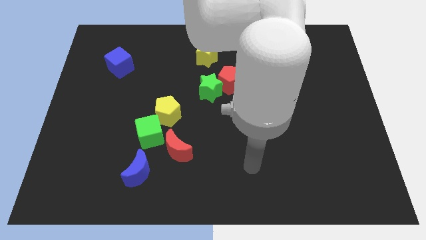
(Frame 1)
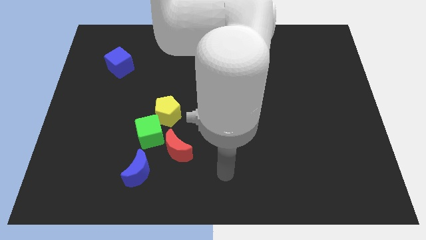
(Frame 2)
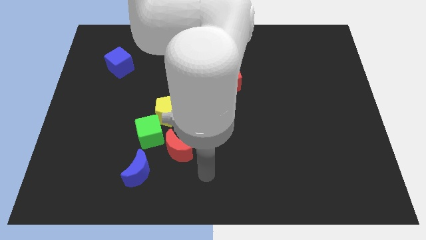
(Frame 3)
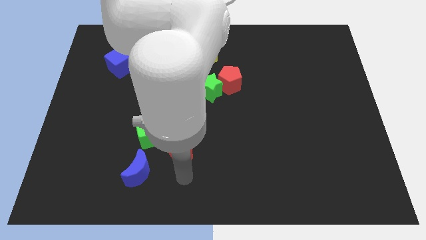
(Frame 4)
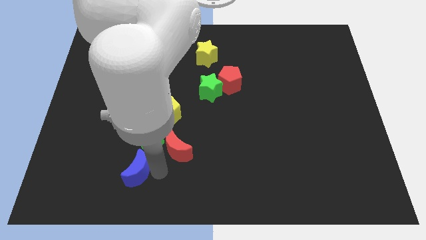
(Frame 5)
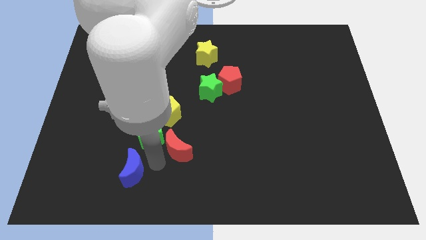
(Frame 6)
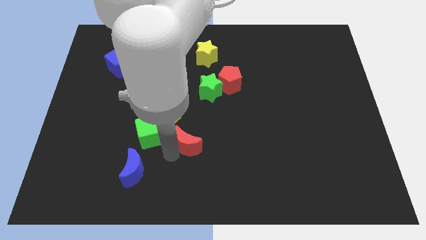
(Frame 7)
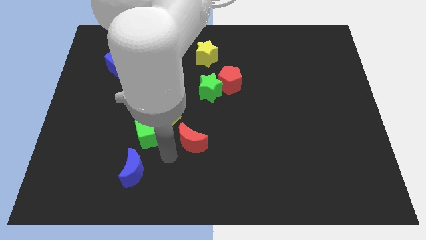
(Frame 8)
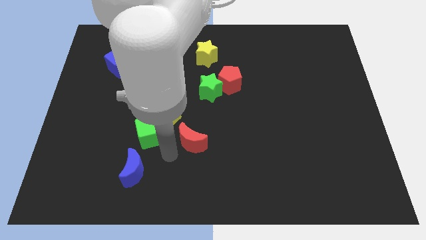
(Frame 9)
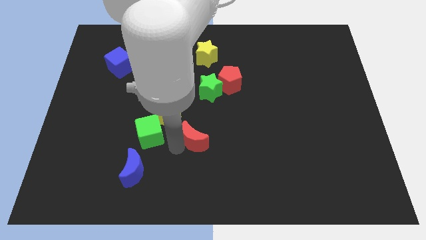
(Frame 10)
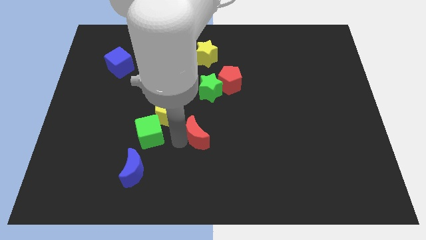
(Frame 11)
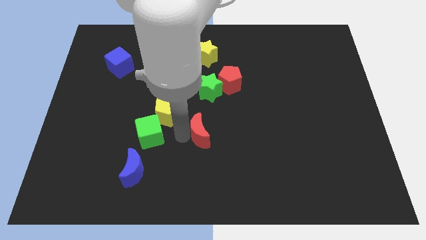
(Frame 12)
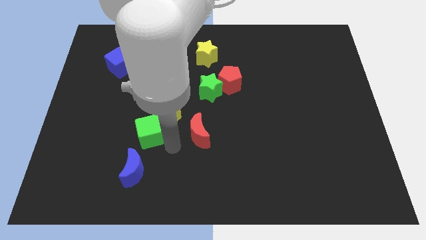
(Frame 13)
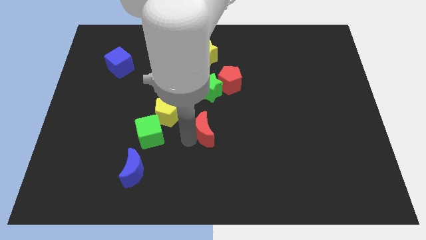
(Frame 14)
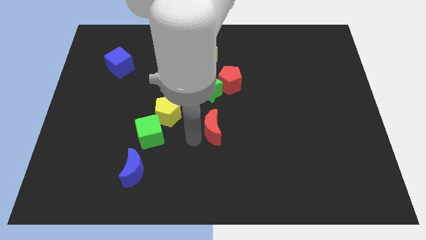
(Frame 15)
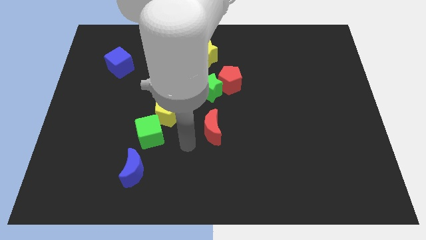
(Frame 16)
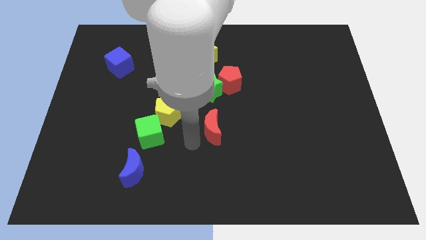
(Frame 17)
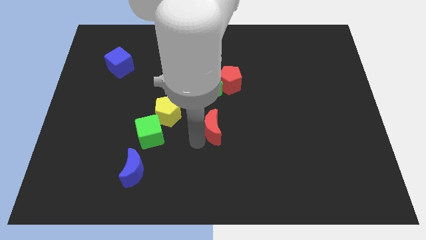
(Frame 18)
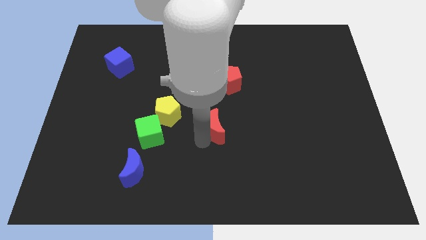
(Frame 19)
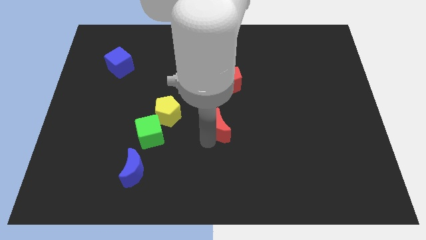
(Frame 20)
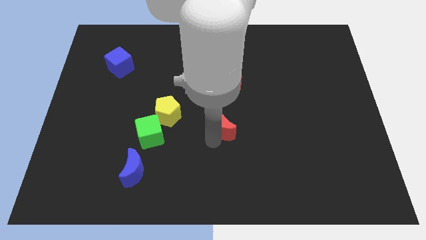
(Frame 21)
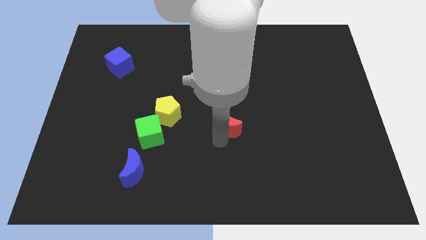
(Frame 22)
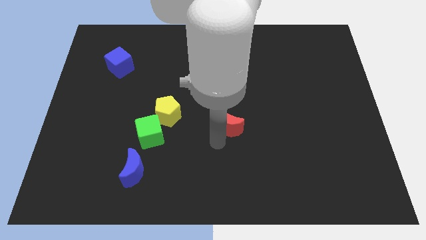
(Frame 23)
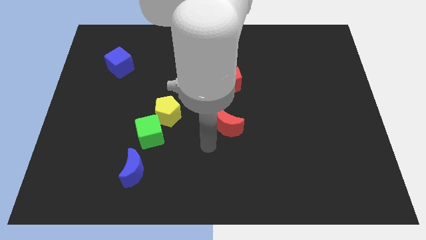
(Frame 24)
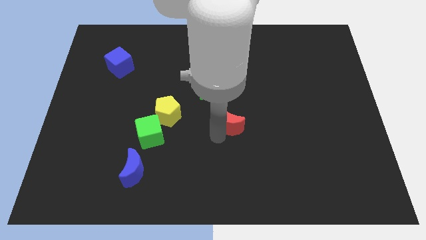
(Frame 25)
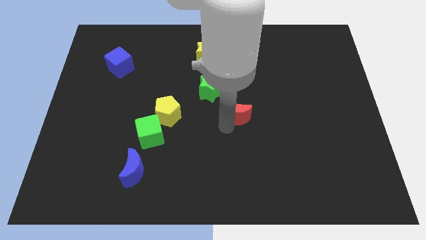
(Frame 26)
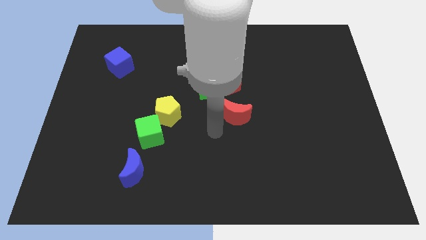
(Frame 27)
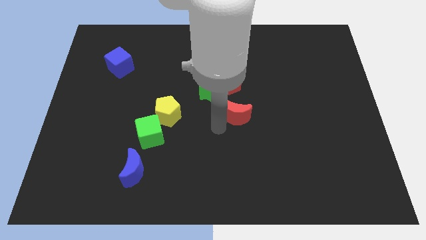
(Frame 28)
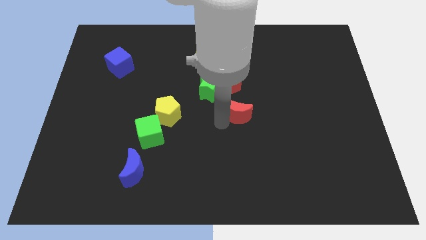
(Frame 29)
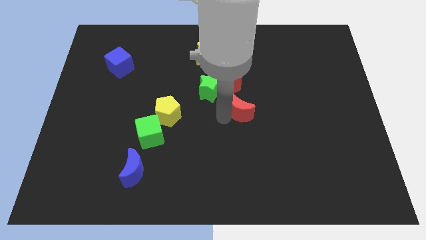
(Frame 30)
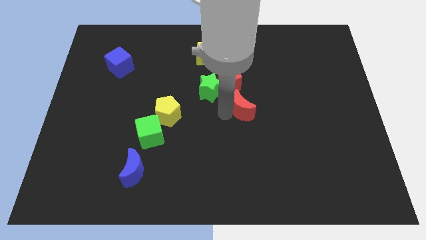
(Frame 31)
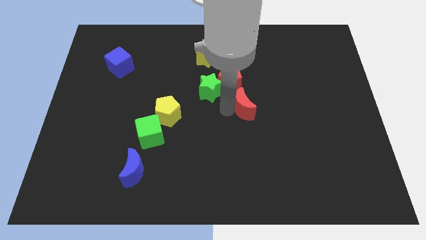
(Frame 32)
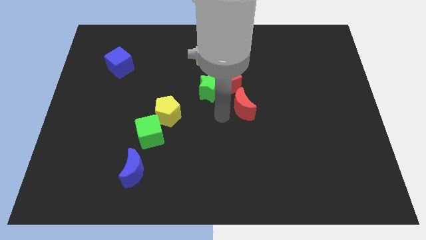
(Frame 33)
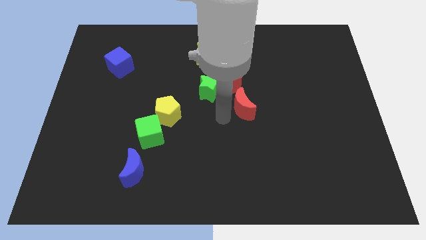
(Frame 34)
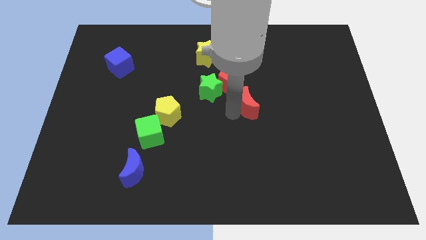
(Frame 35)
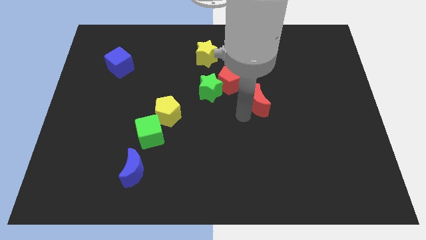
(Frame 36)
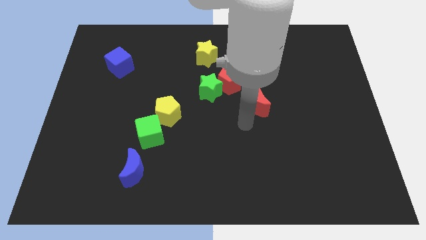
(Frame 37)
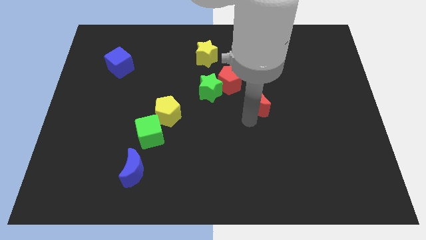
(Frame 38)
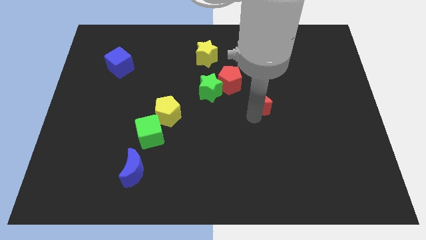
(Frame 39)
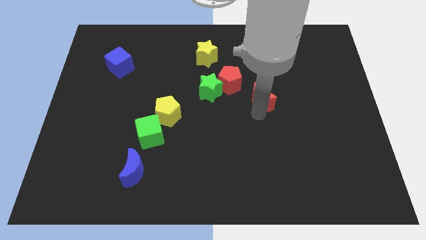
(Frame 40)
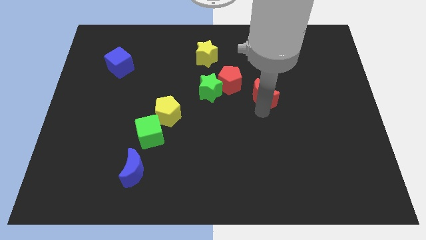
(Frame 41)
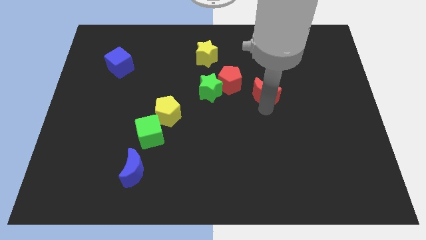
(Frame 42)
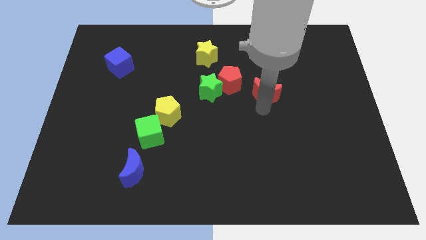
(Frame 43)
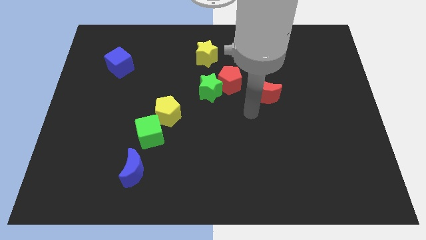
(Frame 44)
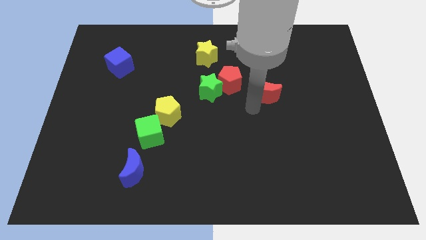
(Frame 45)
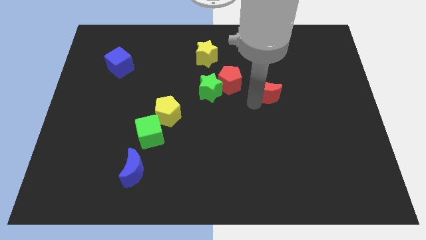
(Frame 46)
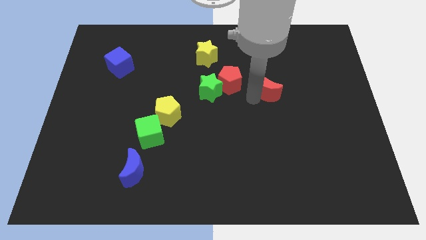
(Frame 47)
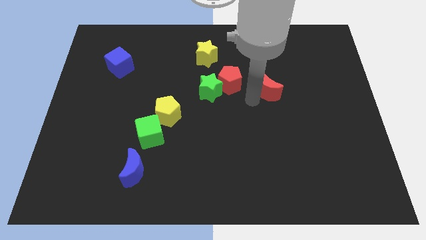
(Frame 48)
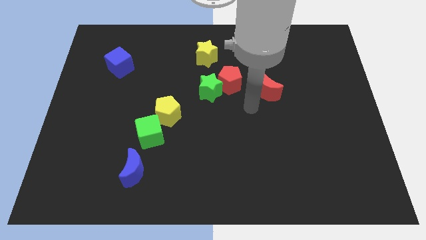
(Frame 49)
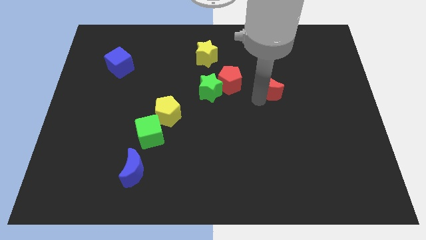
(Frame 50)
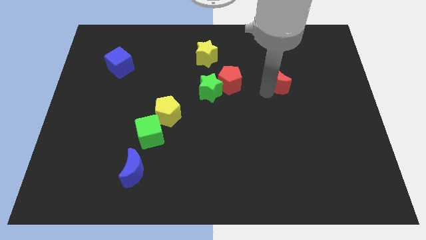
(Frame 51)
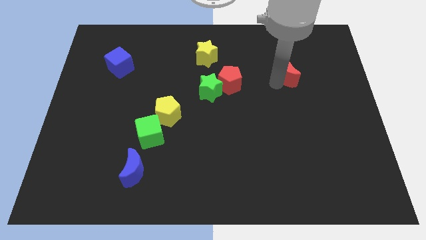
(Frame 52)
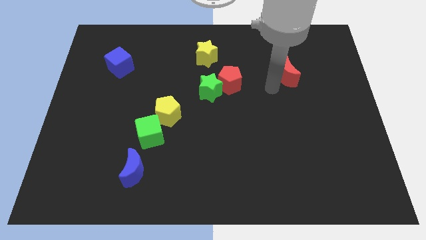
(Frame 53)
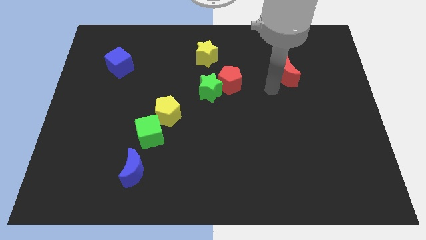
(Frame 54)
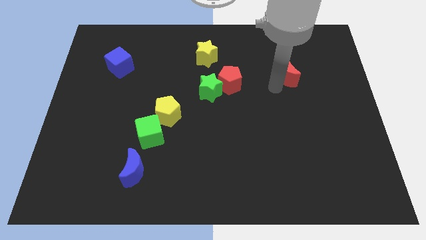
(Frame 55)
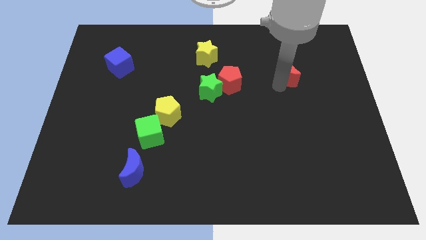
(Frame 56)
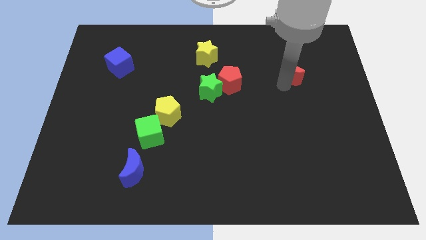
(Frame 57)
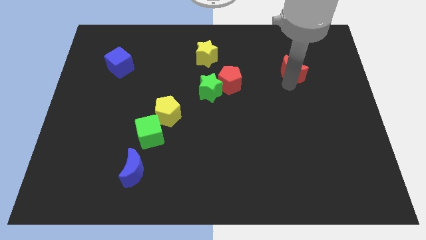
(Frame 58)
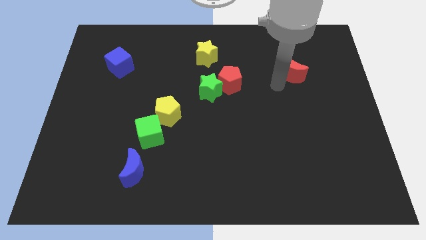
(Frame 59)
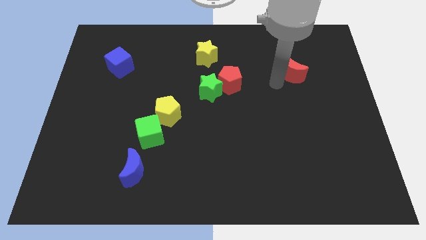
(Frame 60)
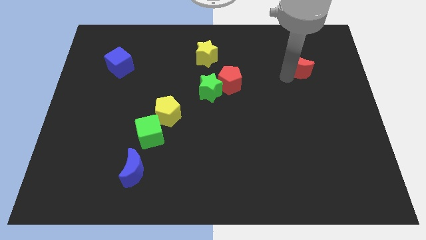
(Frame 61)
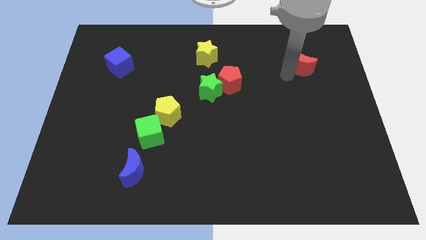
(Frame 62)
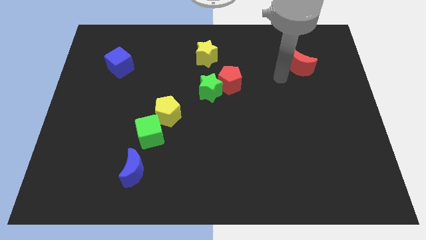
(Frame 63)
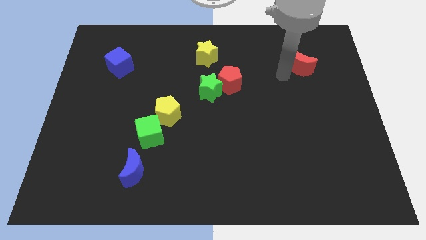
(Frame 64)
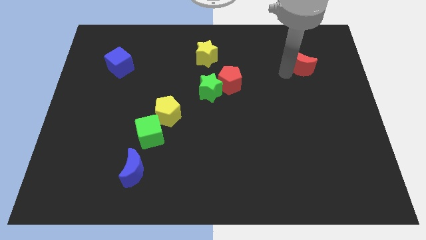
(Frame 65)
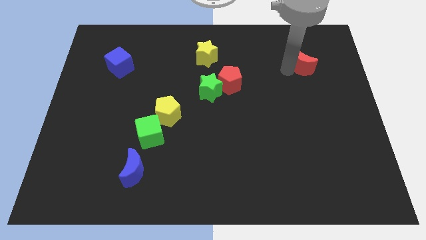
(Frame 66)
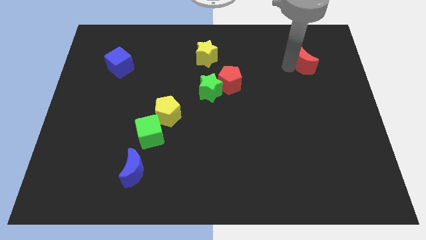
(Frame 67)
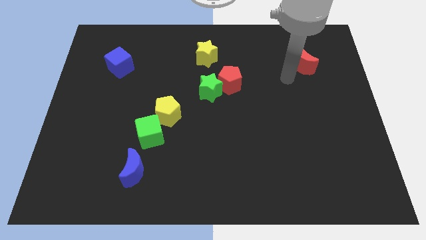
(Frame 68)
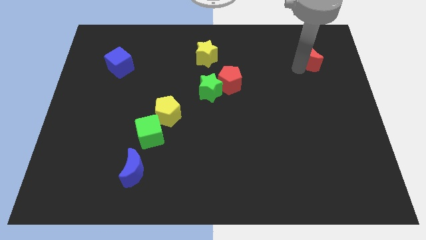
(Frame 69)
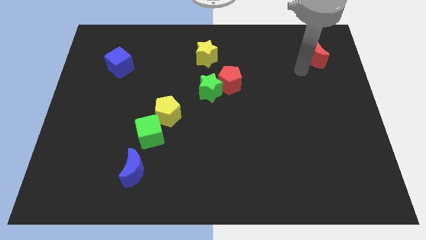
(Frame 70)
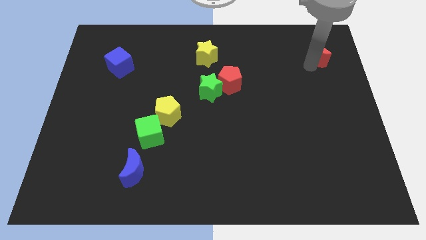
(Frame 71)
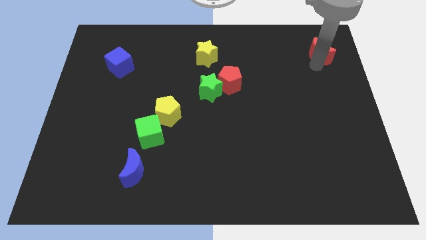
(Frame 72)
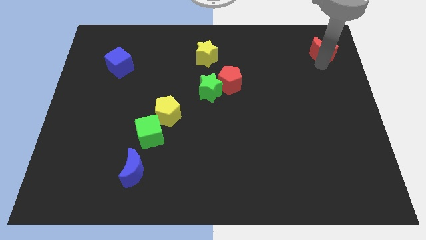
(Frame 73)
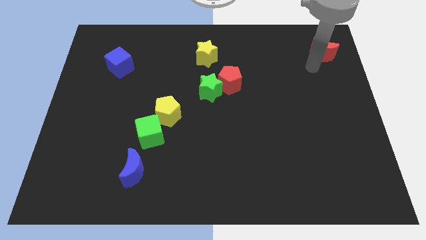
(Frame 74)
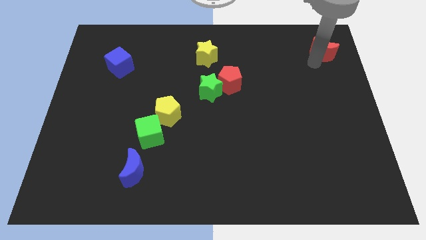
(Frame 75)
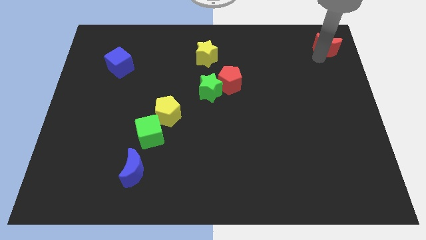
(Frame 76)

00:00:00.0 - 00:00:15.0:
put the red moon to the top right of the board

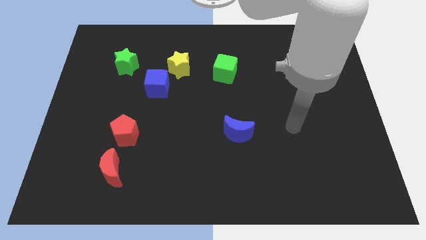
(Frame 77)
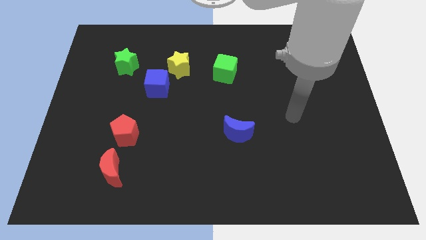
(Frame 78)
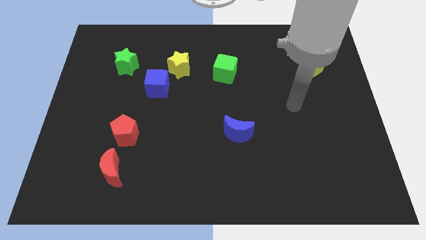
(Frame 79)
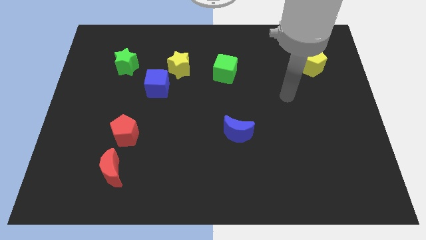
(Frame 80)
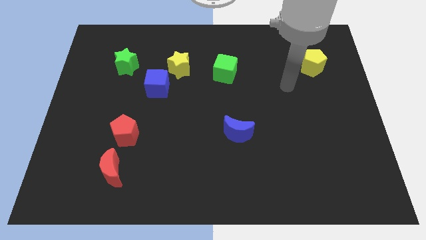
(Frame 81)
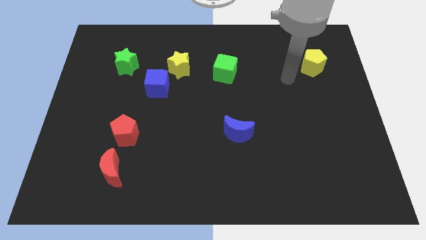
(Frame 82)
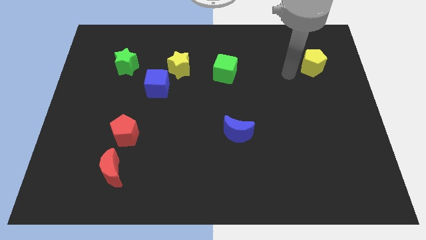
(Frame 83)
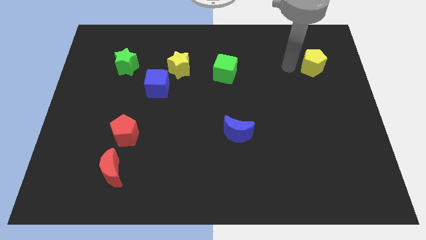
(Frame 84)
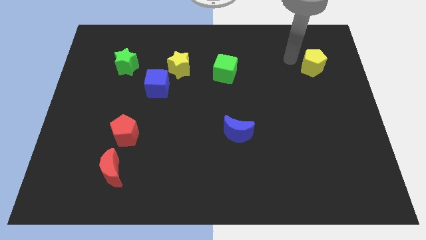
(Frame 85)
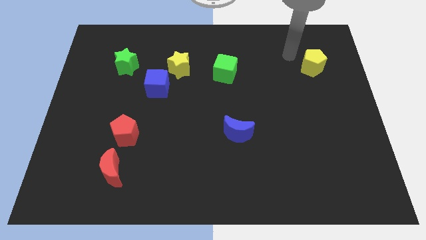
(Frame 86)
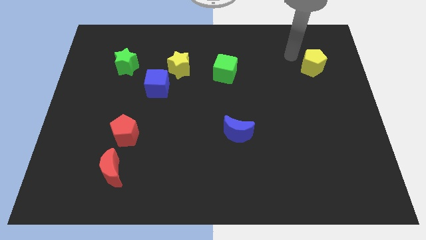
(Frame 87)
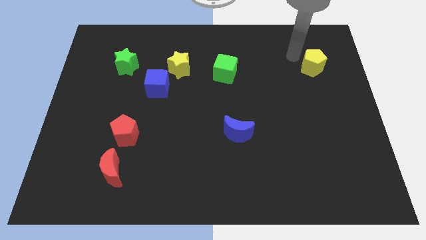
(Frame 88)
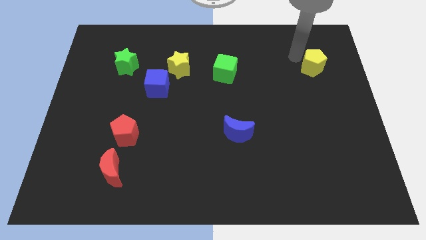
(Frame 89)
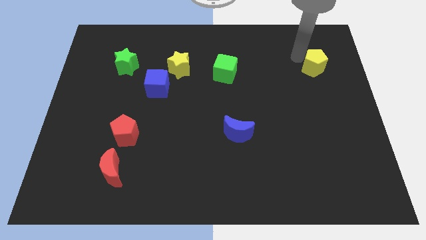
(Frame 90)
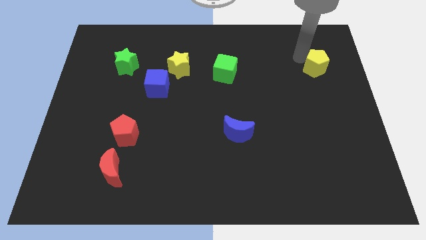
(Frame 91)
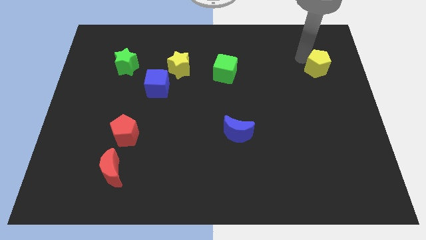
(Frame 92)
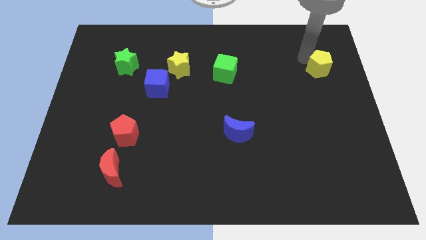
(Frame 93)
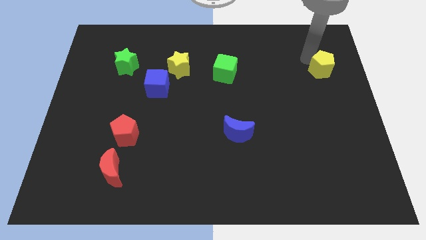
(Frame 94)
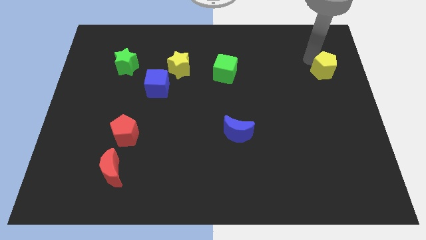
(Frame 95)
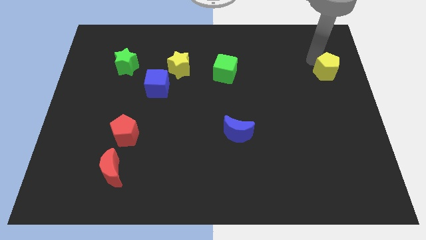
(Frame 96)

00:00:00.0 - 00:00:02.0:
push the yellow pentagon to the right side
